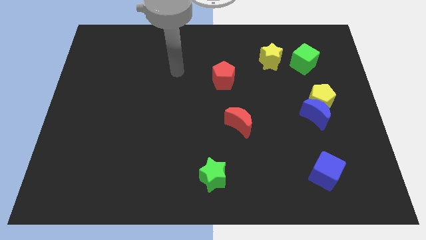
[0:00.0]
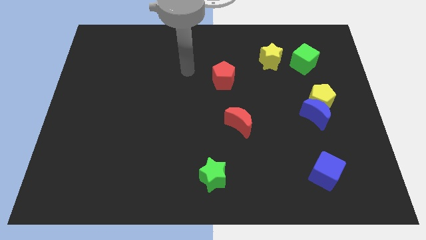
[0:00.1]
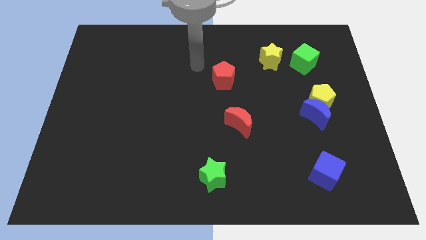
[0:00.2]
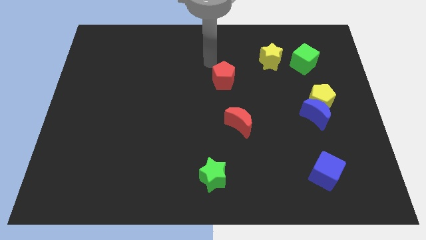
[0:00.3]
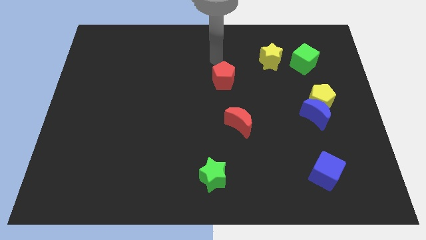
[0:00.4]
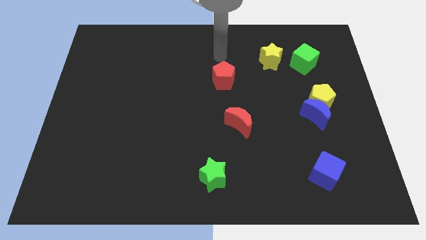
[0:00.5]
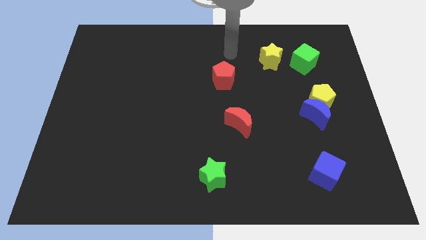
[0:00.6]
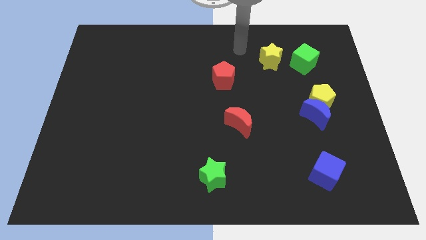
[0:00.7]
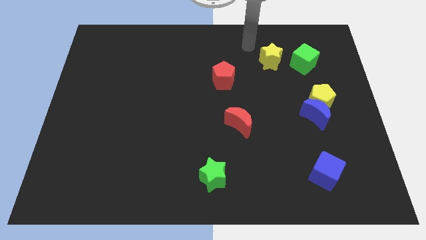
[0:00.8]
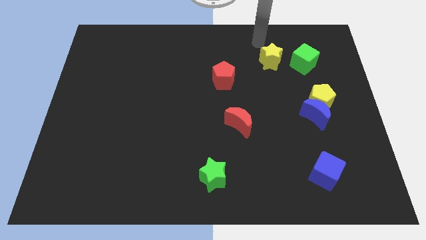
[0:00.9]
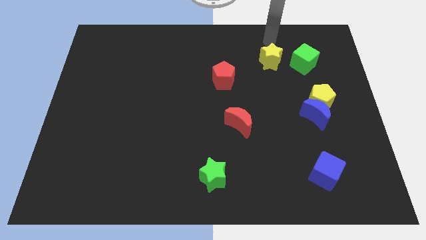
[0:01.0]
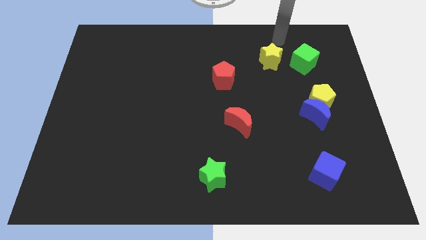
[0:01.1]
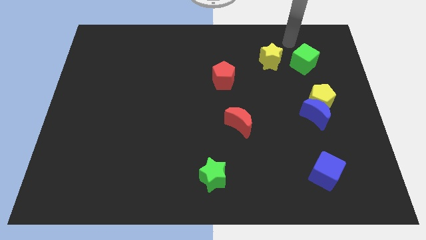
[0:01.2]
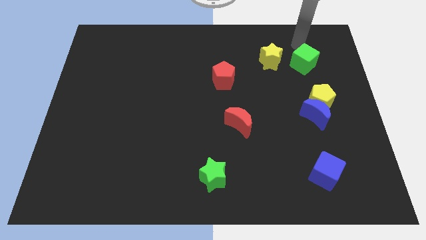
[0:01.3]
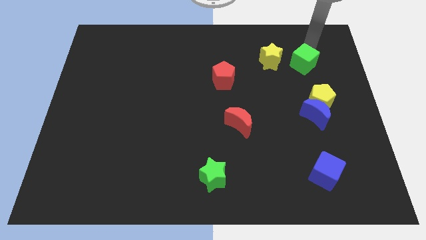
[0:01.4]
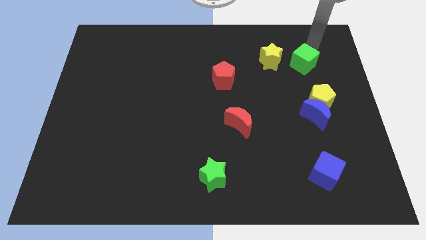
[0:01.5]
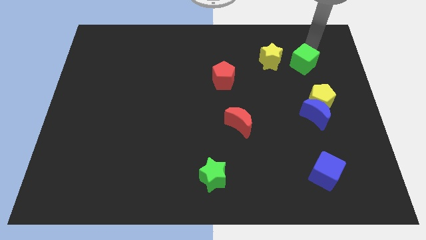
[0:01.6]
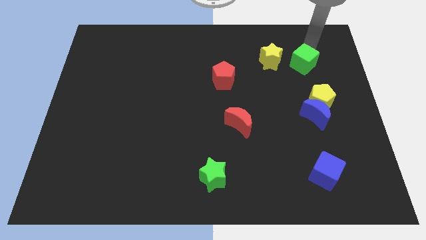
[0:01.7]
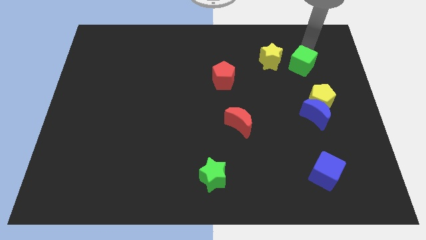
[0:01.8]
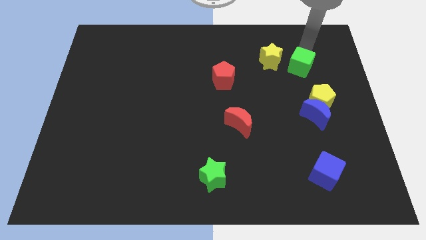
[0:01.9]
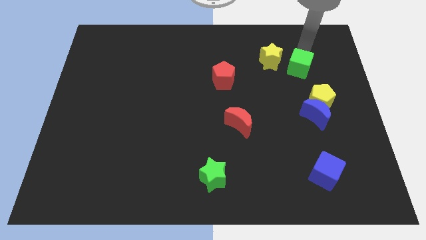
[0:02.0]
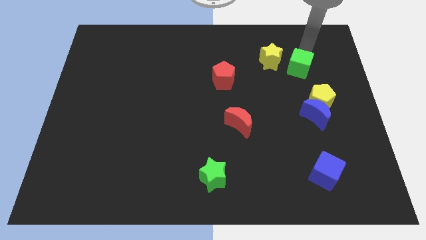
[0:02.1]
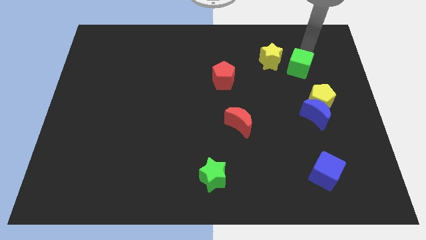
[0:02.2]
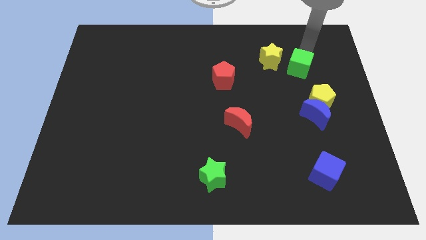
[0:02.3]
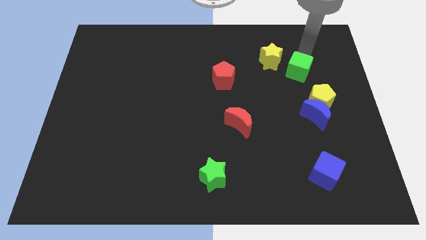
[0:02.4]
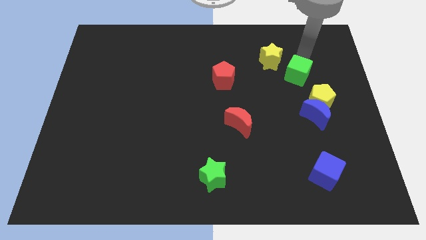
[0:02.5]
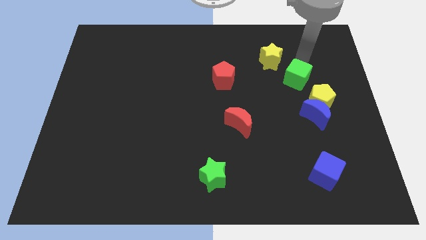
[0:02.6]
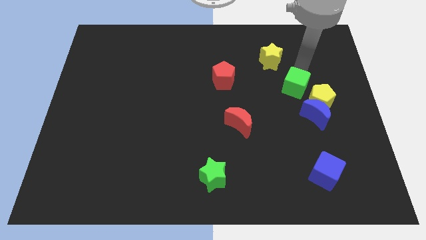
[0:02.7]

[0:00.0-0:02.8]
slide the green cube downwards and left a little bit

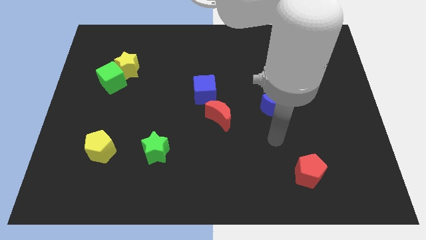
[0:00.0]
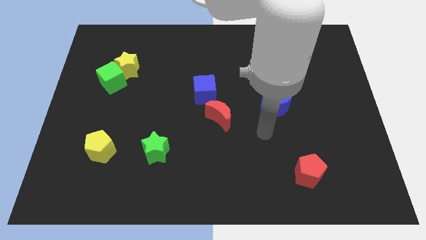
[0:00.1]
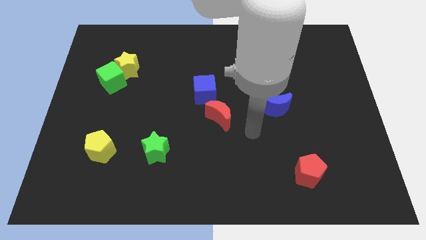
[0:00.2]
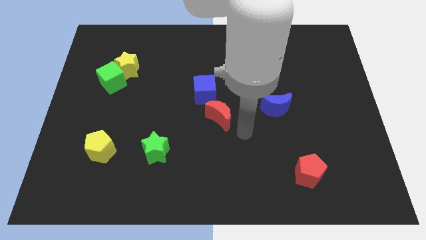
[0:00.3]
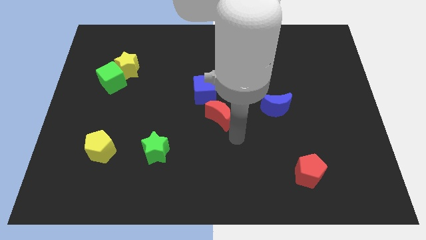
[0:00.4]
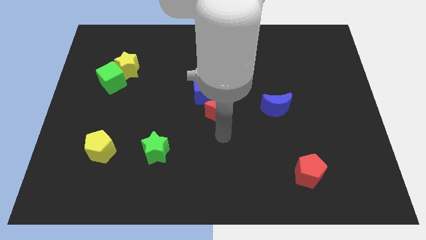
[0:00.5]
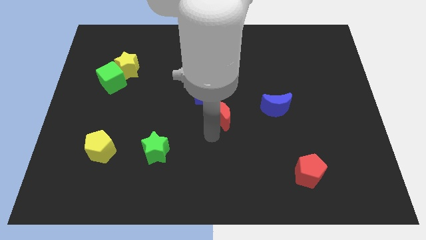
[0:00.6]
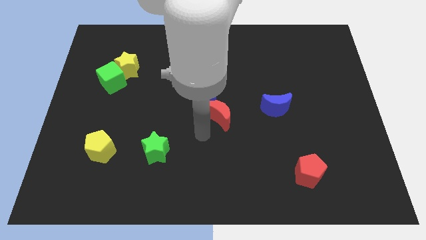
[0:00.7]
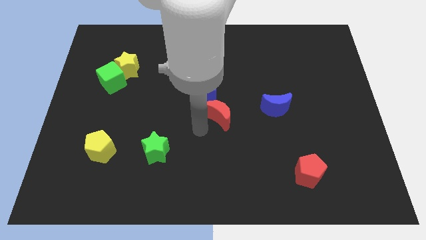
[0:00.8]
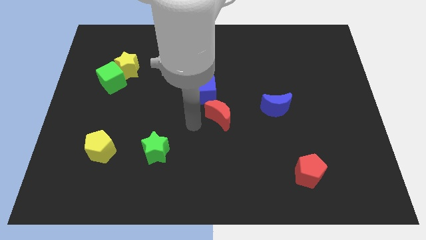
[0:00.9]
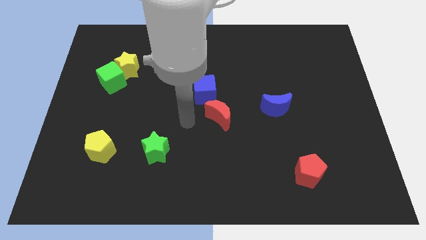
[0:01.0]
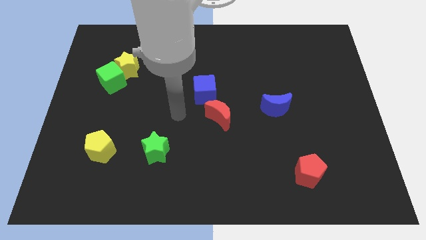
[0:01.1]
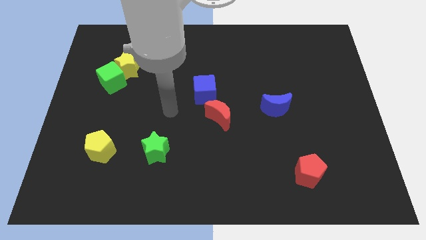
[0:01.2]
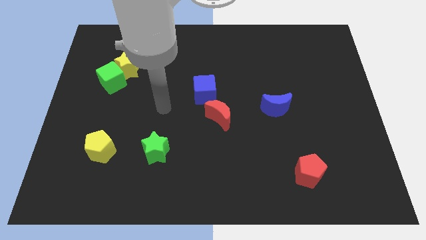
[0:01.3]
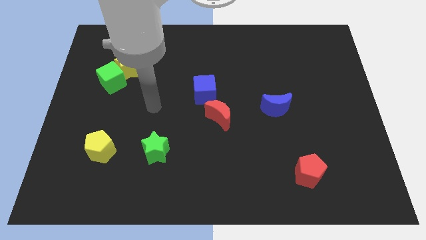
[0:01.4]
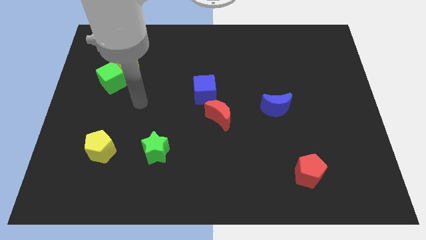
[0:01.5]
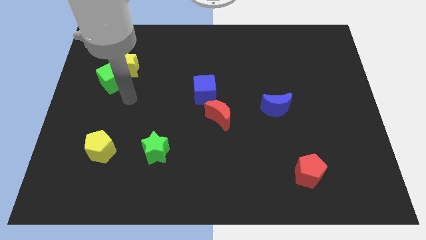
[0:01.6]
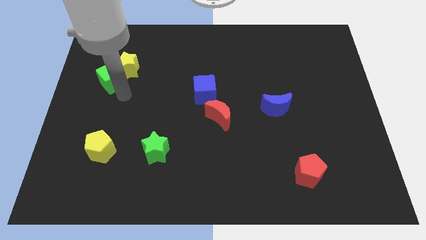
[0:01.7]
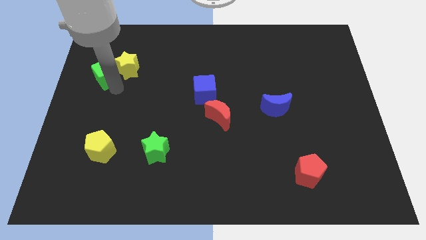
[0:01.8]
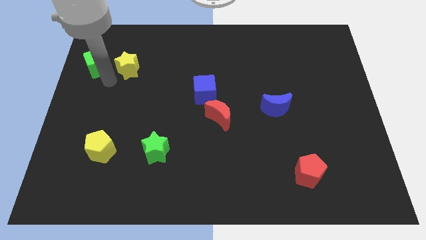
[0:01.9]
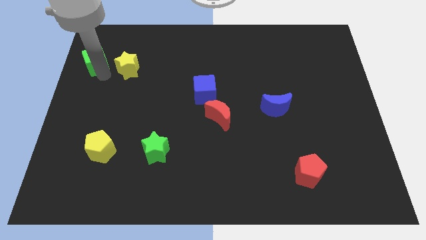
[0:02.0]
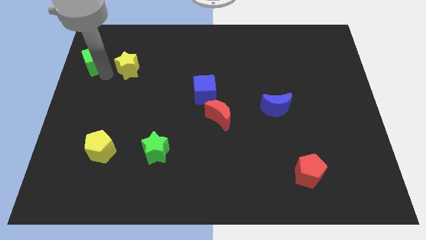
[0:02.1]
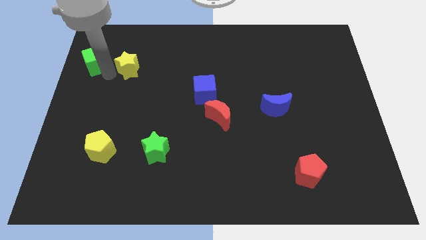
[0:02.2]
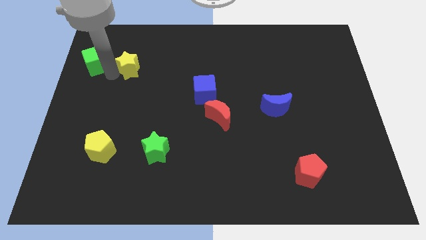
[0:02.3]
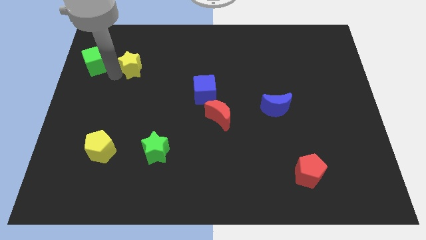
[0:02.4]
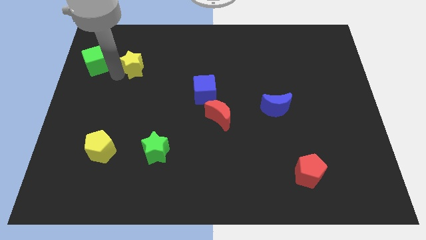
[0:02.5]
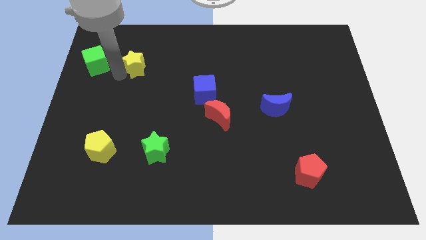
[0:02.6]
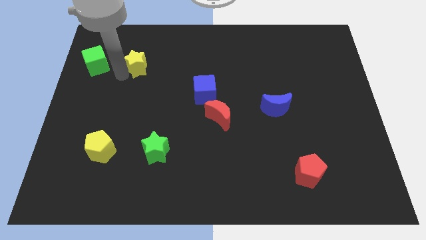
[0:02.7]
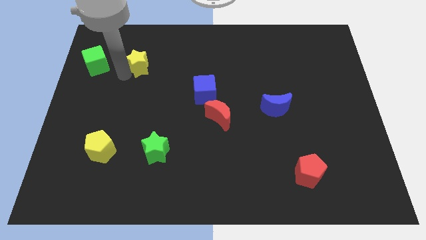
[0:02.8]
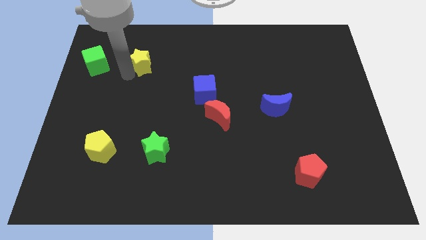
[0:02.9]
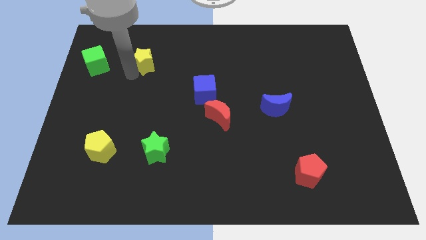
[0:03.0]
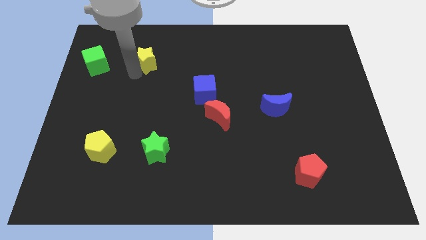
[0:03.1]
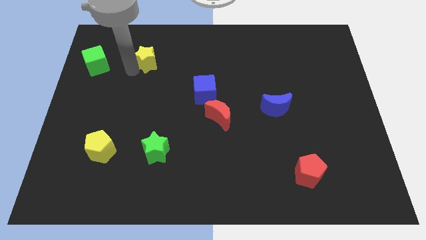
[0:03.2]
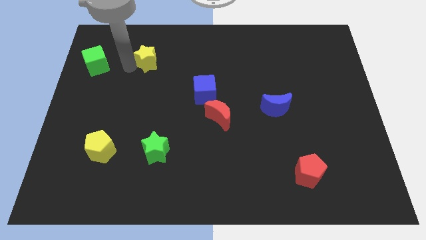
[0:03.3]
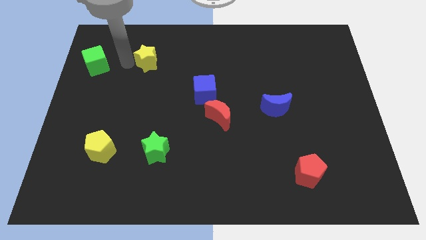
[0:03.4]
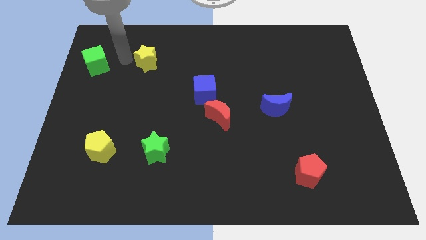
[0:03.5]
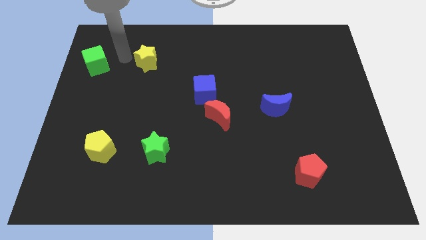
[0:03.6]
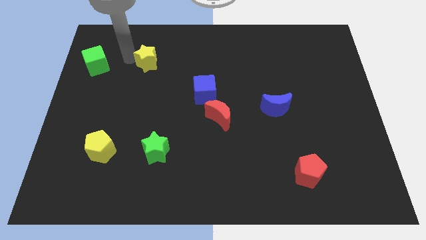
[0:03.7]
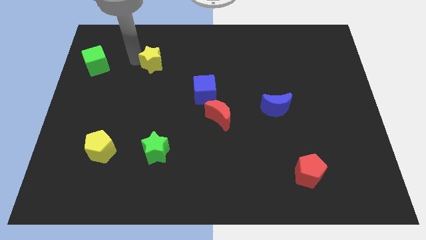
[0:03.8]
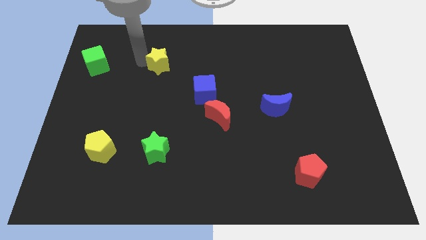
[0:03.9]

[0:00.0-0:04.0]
move the yellow star to the right a little bit

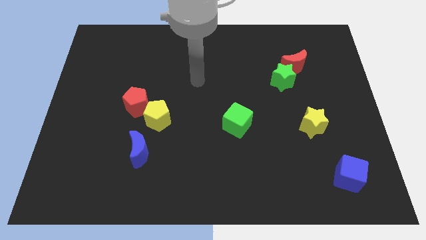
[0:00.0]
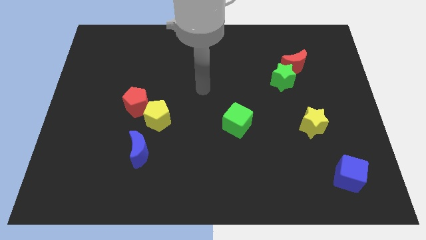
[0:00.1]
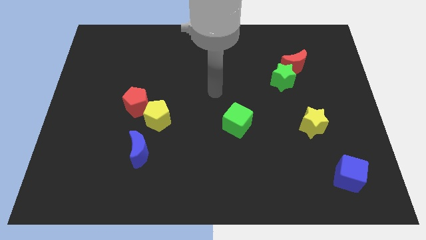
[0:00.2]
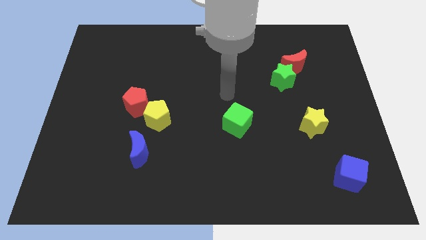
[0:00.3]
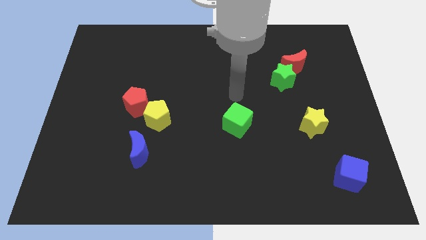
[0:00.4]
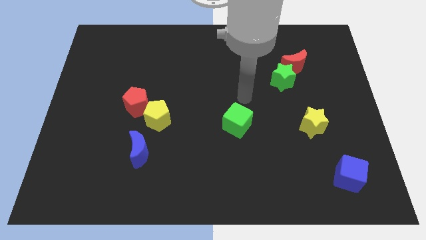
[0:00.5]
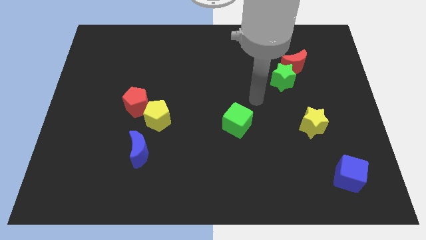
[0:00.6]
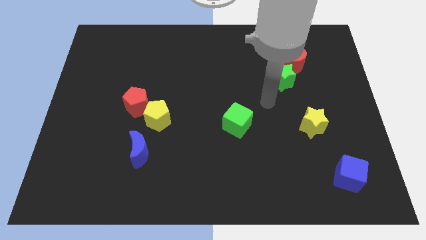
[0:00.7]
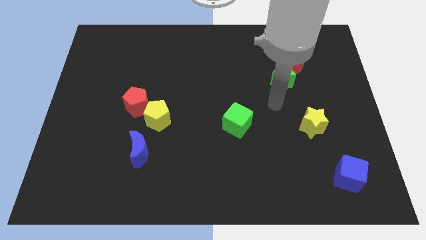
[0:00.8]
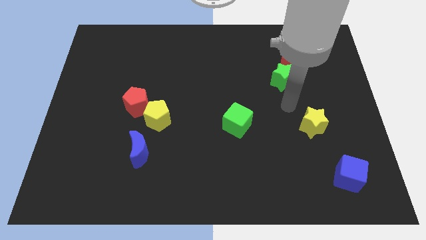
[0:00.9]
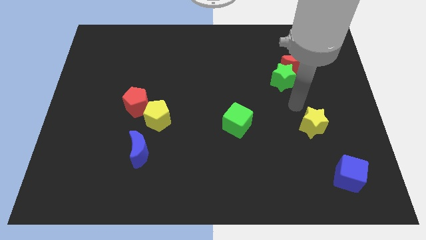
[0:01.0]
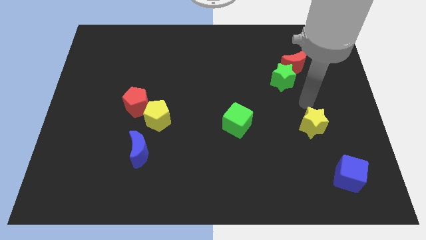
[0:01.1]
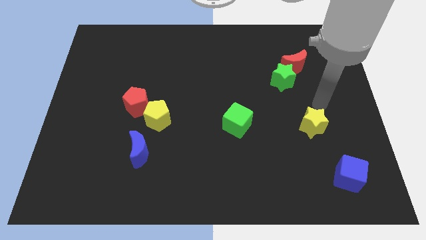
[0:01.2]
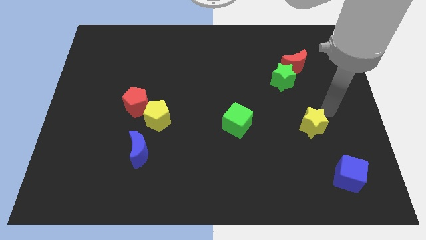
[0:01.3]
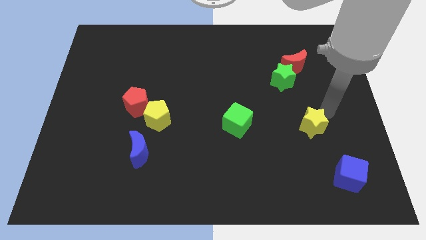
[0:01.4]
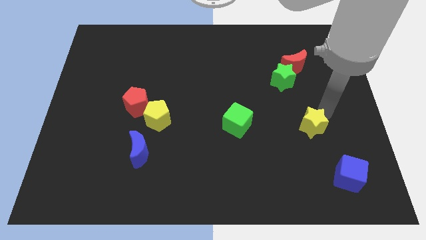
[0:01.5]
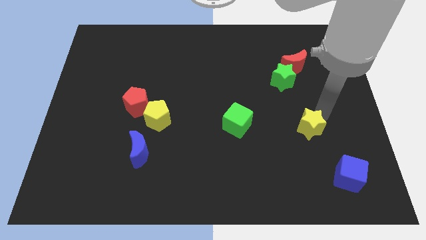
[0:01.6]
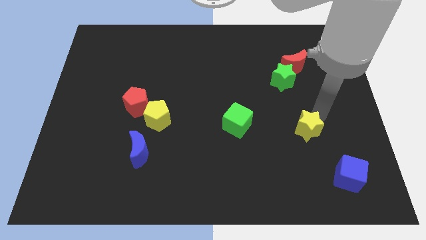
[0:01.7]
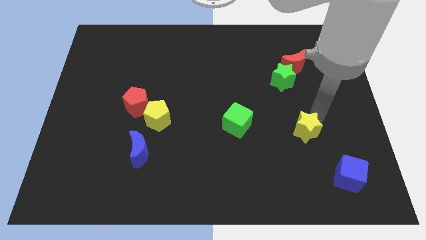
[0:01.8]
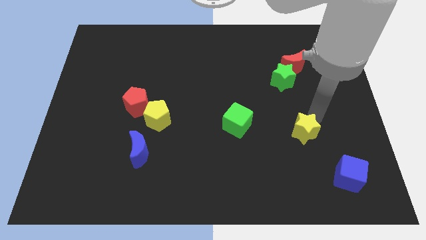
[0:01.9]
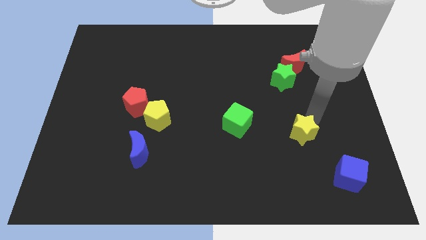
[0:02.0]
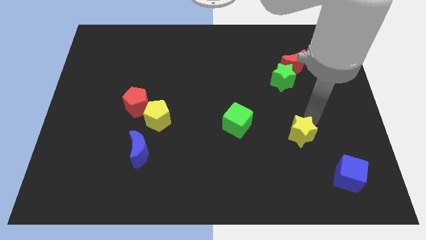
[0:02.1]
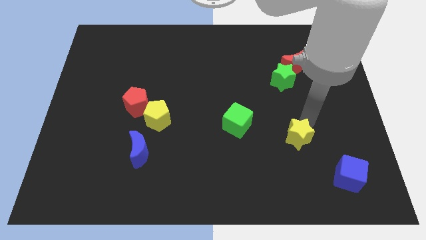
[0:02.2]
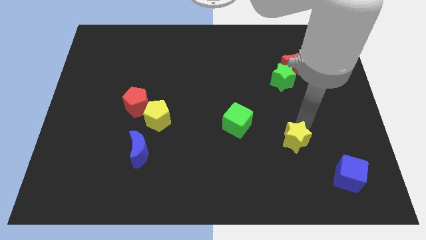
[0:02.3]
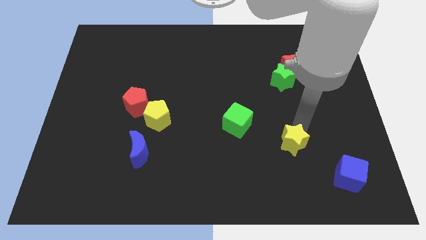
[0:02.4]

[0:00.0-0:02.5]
push the yellow star diagonally downwards and left a little
